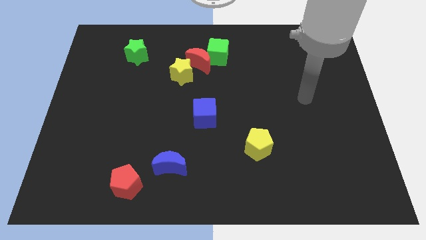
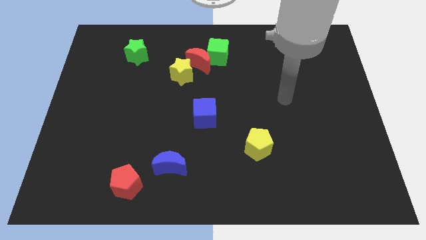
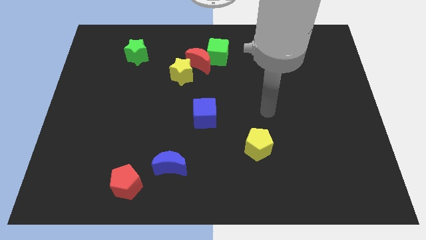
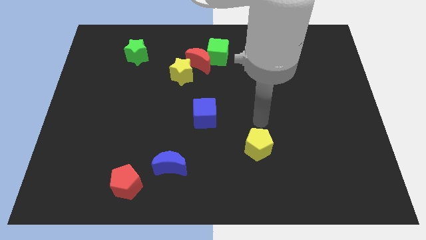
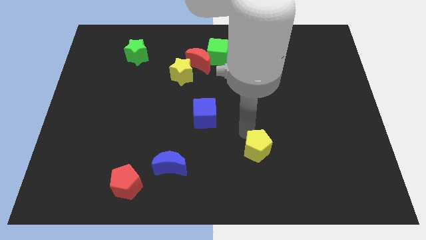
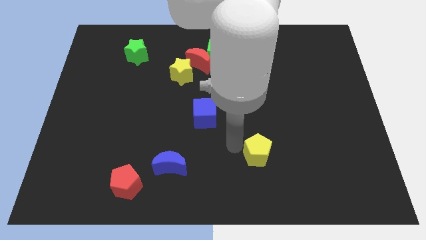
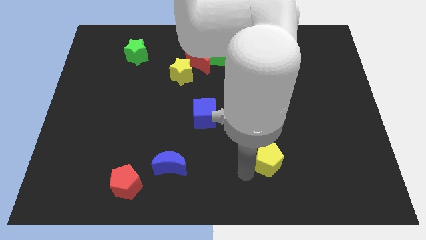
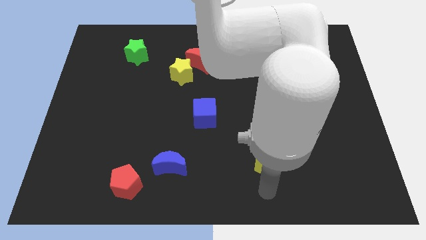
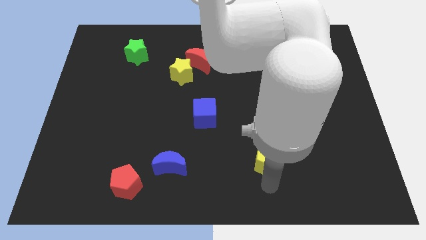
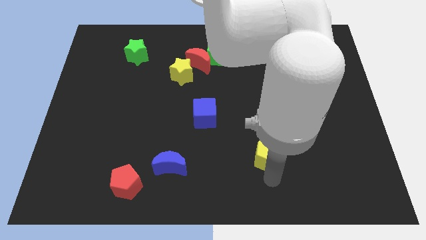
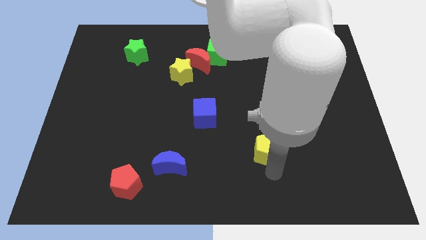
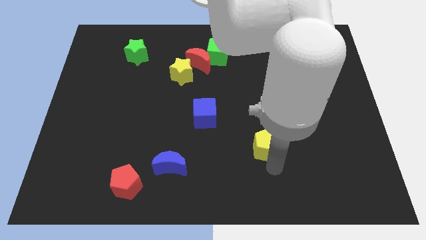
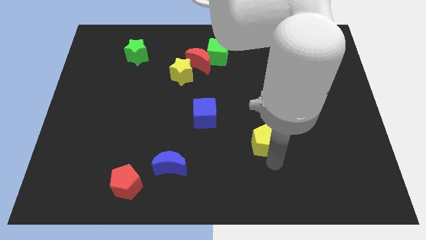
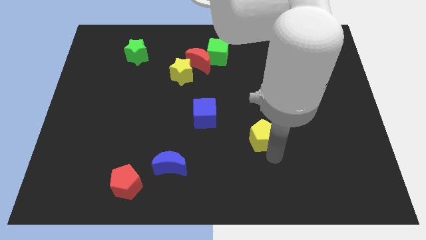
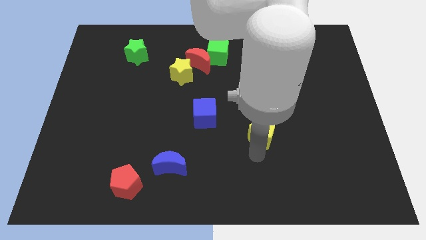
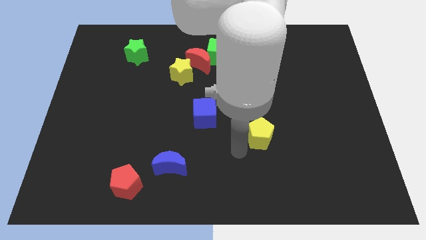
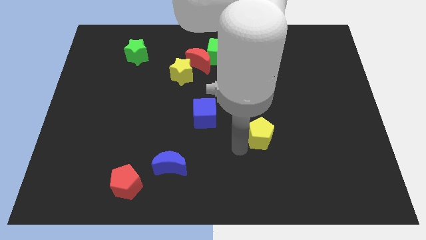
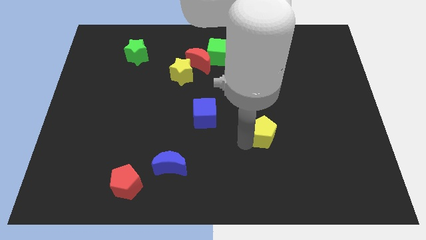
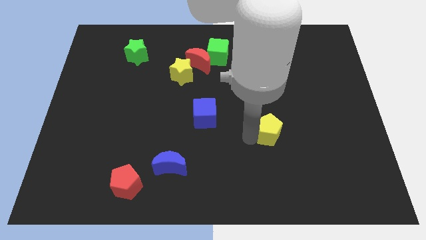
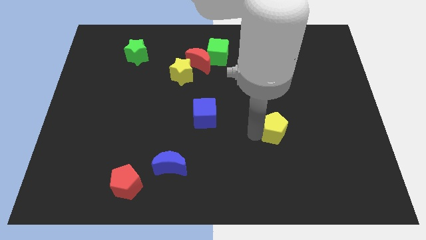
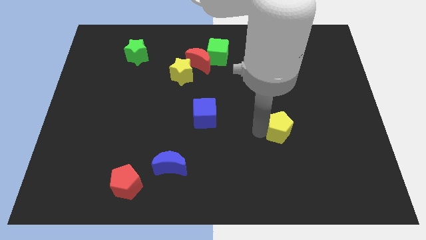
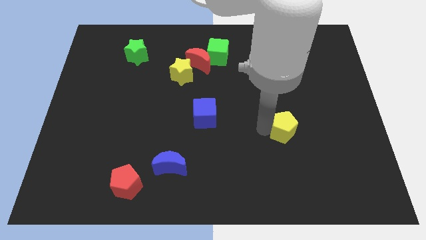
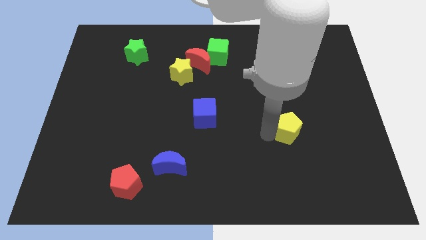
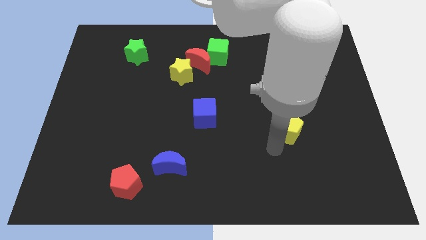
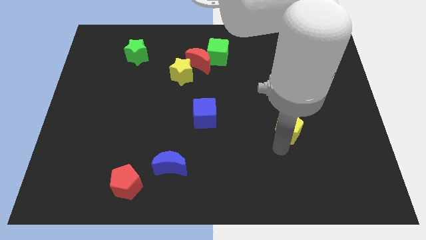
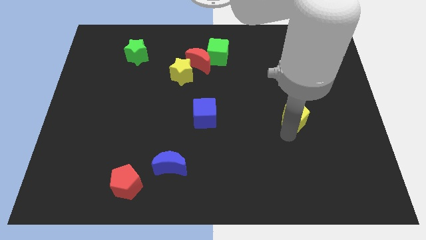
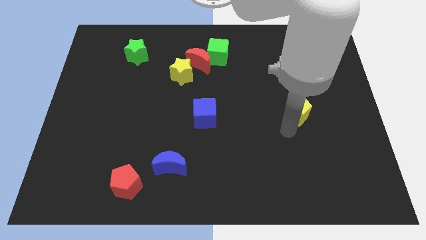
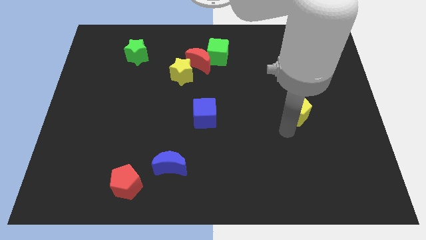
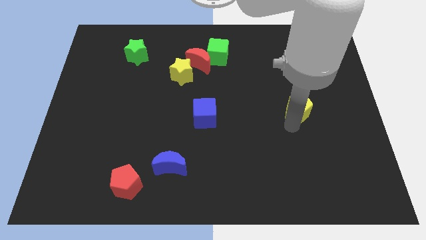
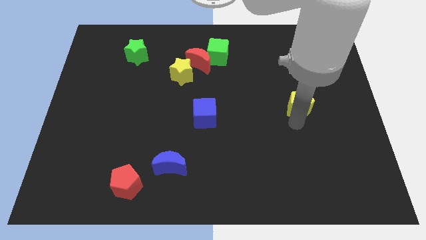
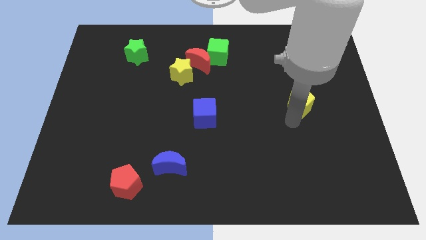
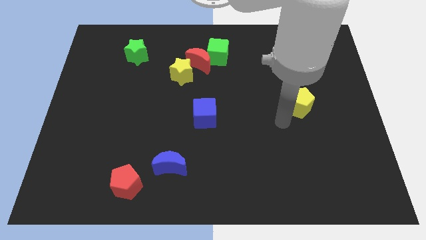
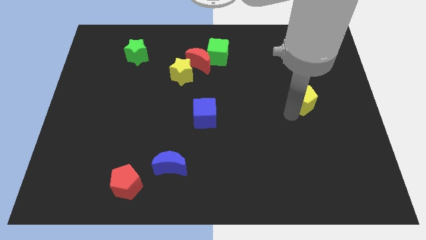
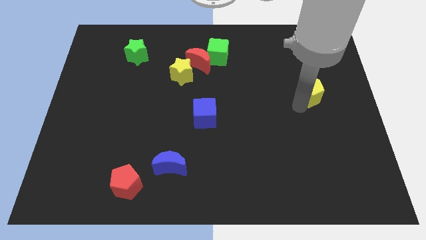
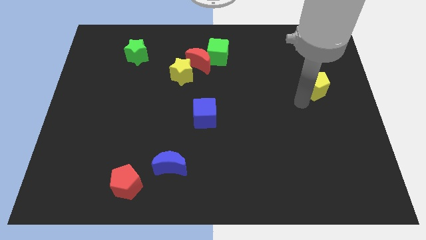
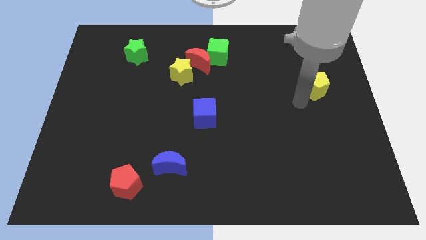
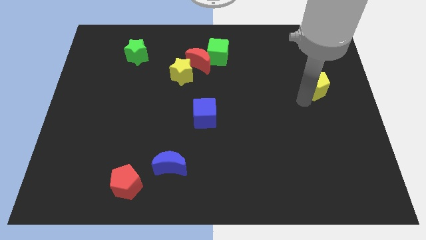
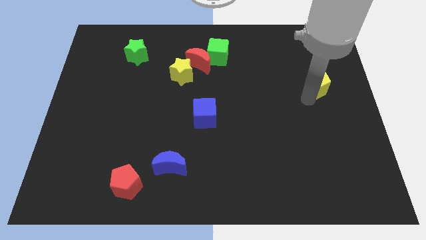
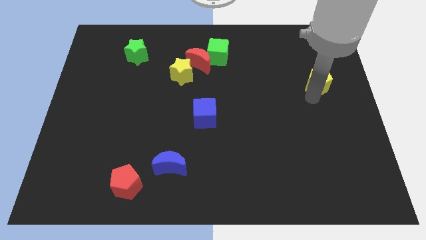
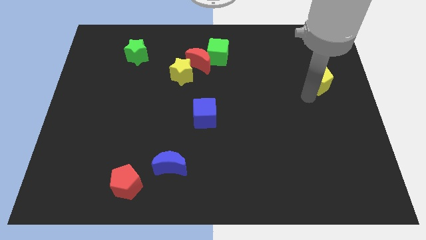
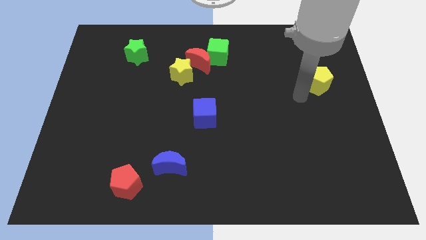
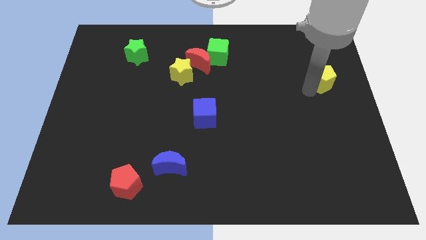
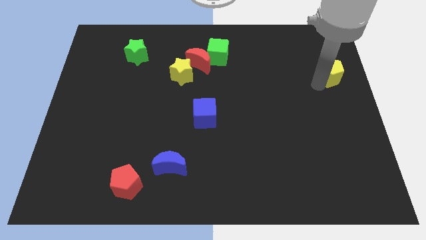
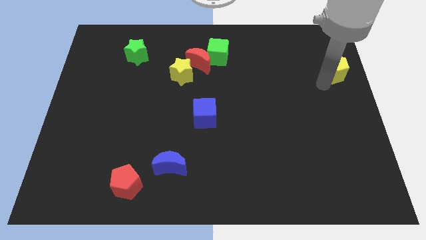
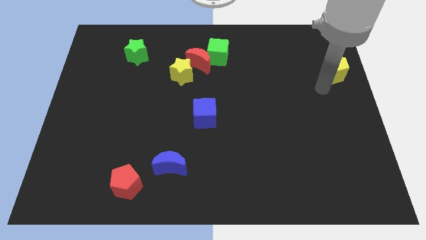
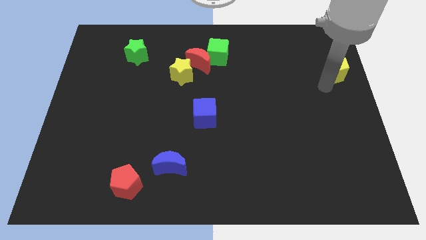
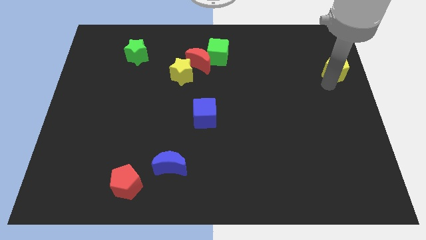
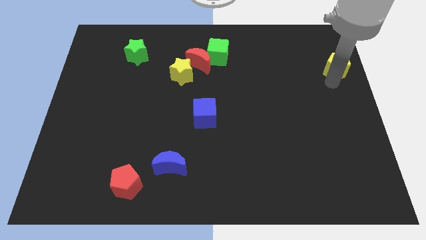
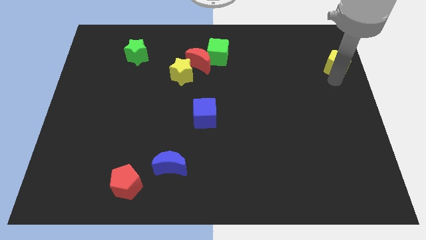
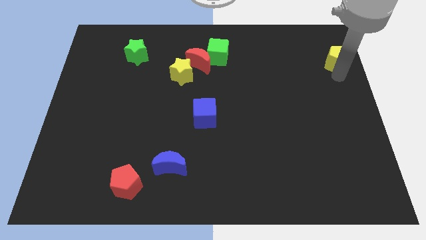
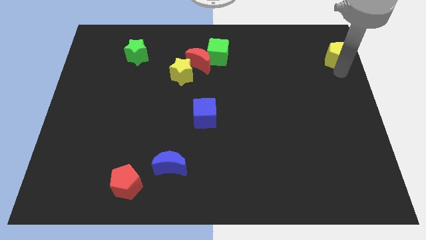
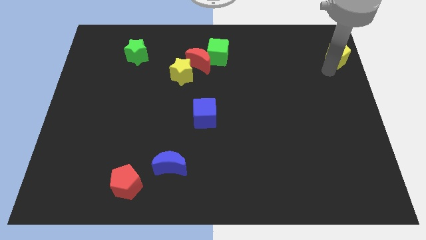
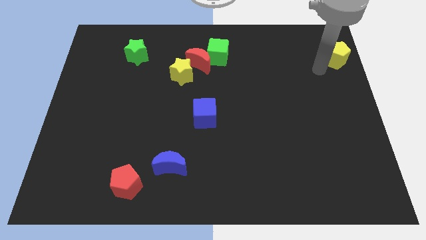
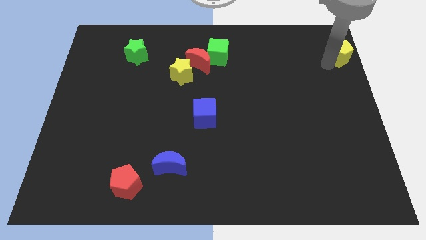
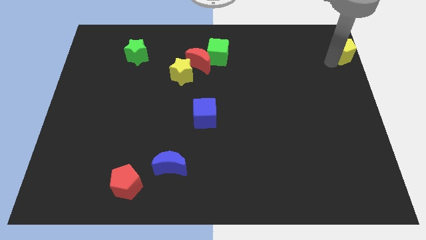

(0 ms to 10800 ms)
move the yellow pentagon to the top right of the board

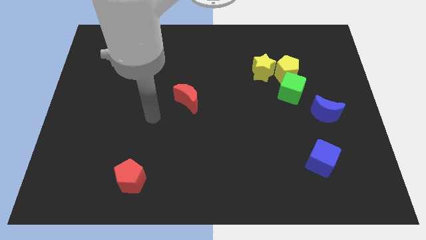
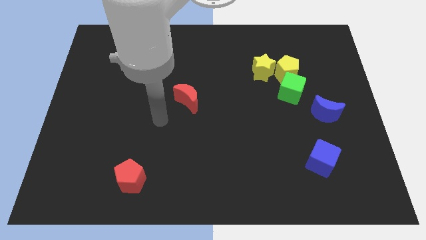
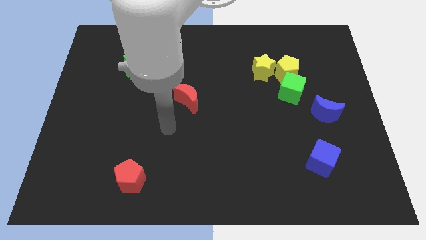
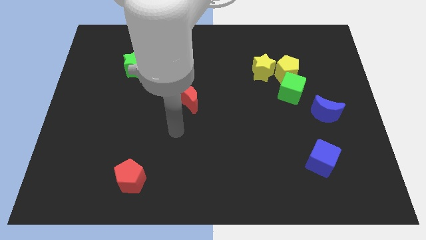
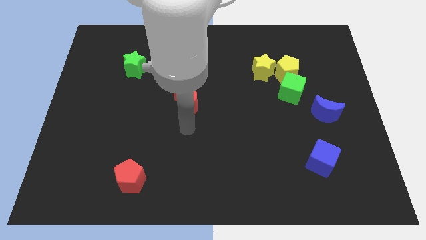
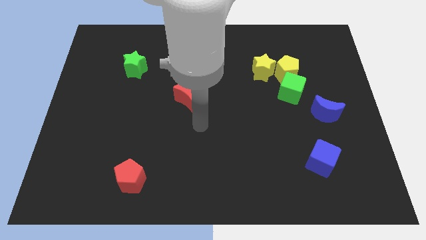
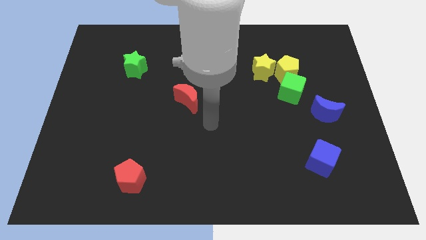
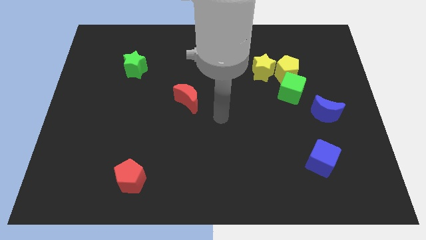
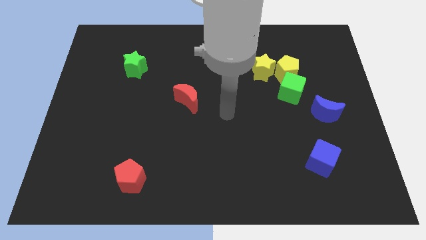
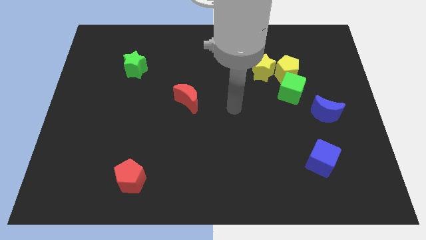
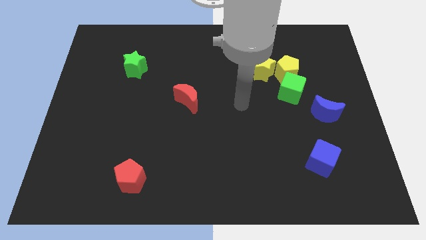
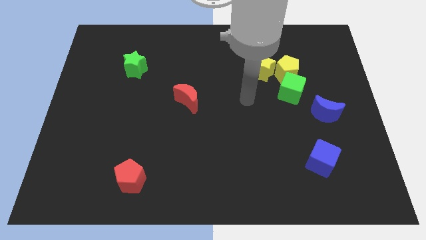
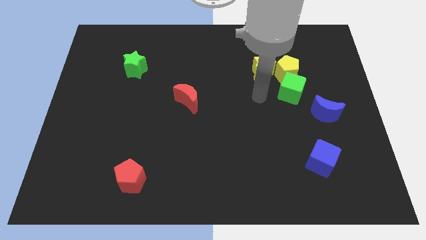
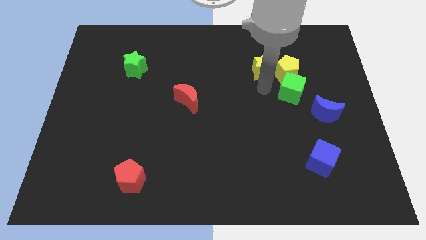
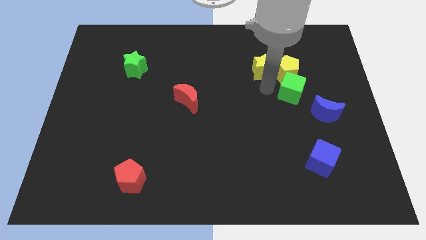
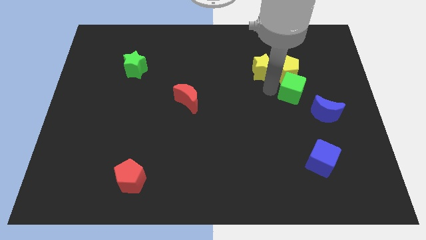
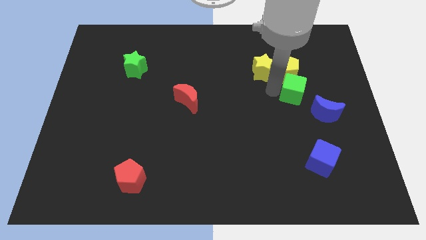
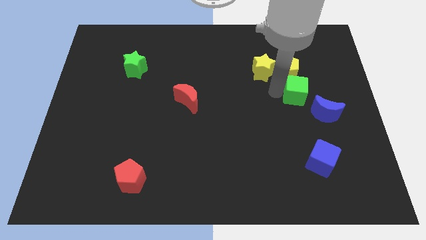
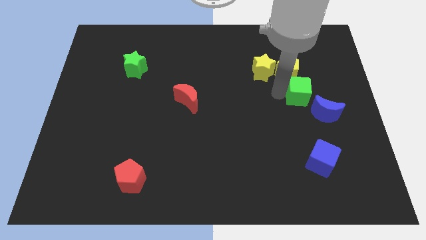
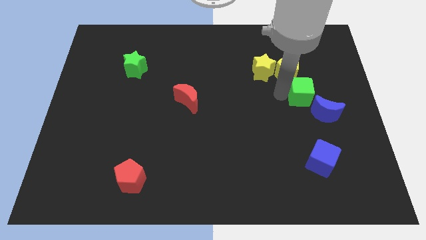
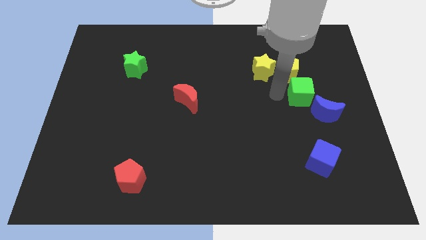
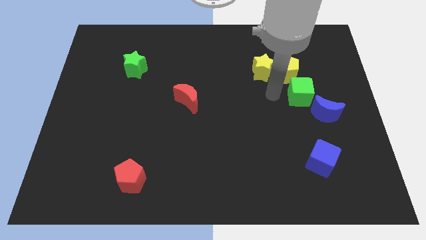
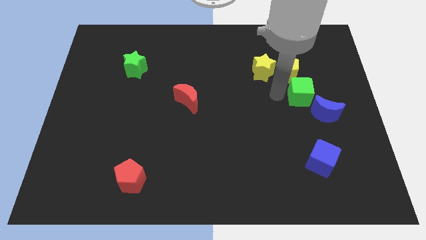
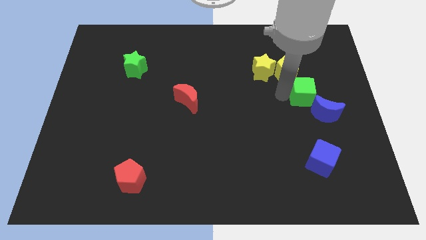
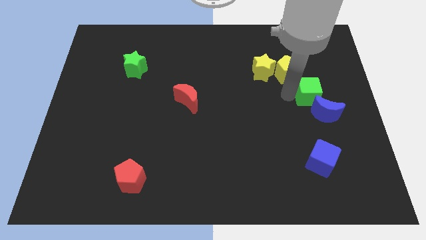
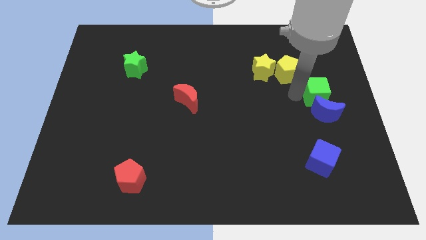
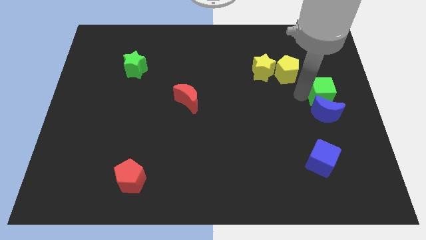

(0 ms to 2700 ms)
slide the green cube to the right side
